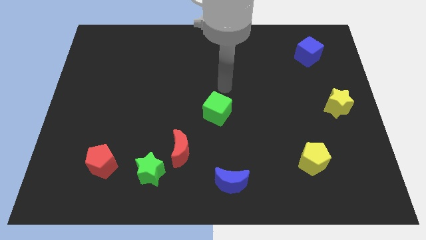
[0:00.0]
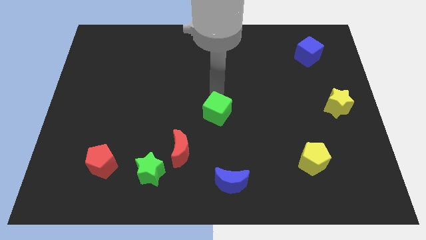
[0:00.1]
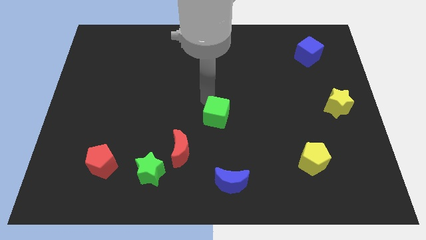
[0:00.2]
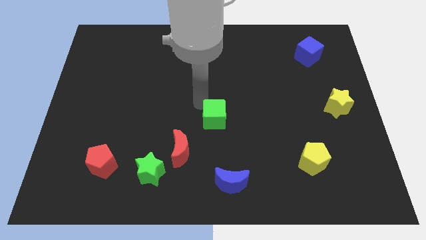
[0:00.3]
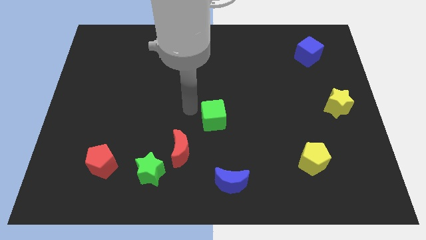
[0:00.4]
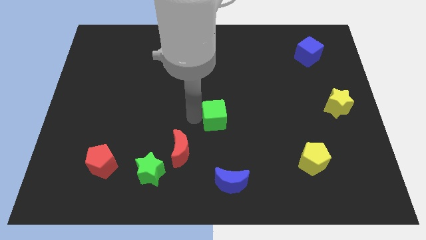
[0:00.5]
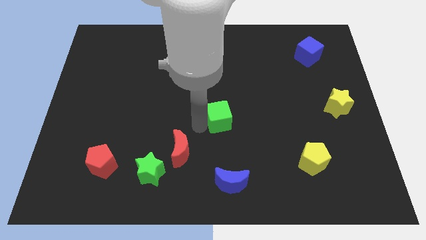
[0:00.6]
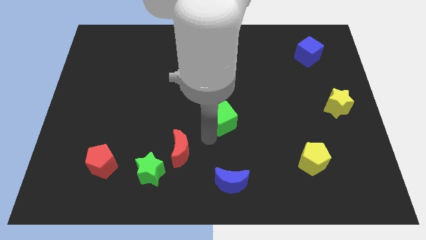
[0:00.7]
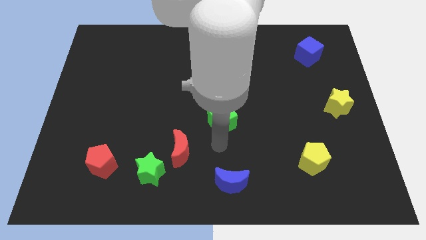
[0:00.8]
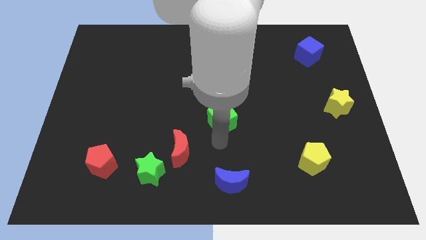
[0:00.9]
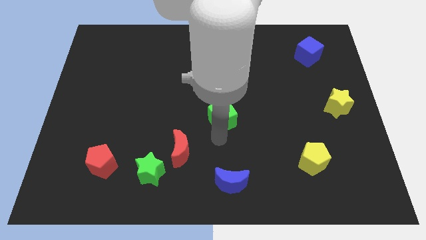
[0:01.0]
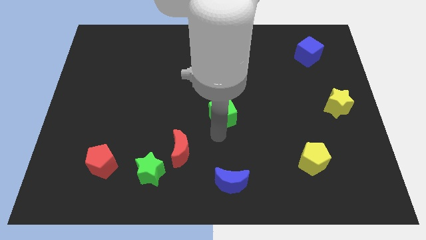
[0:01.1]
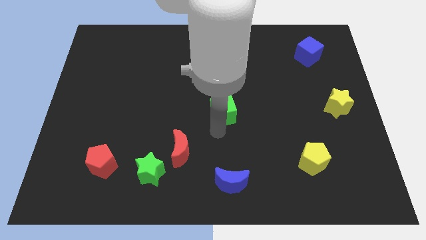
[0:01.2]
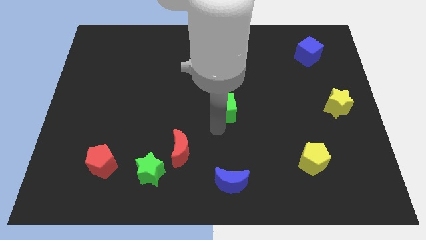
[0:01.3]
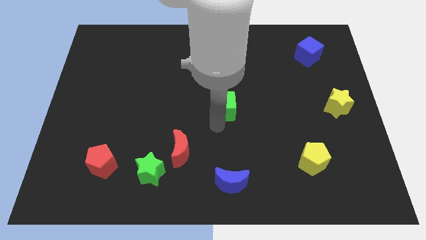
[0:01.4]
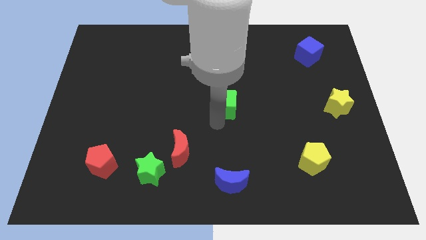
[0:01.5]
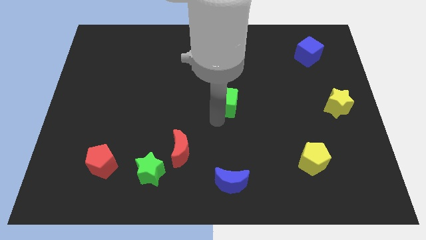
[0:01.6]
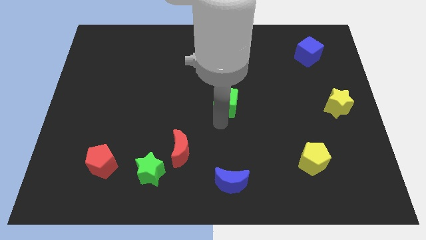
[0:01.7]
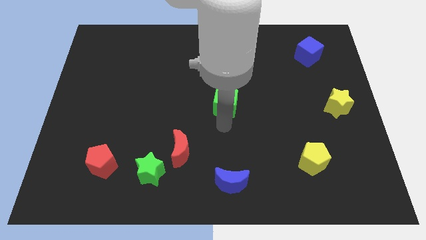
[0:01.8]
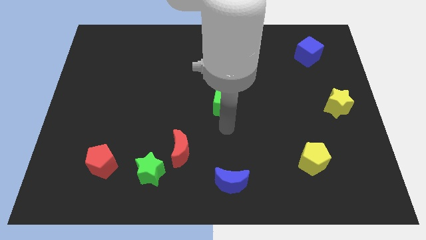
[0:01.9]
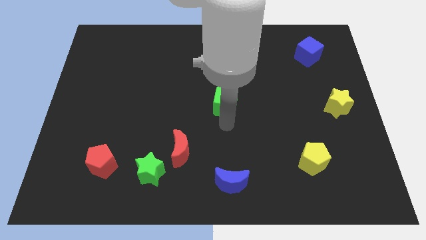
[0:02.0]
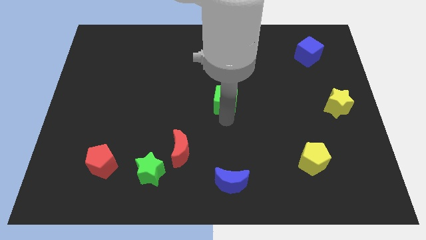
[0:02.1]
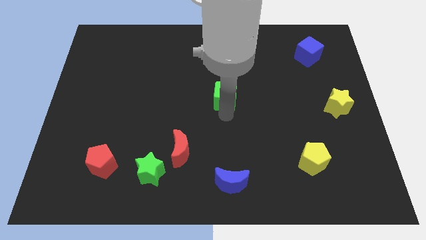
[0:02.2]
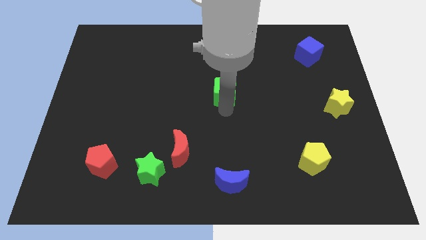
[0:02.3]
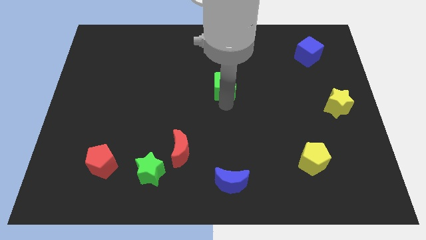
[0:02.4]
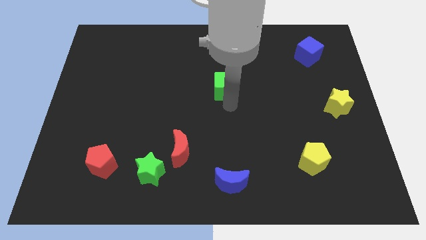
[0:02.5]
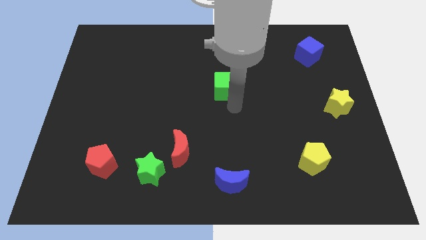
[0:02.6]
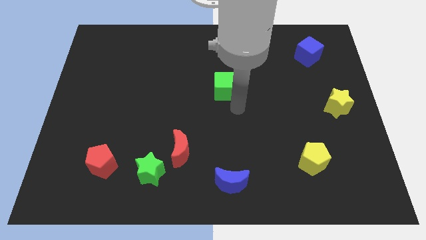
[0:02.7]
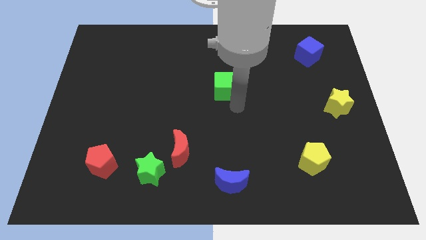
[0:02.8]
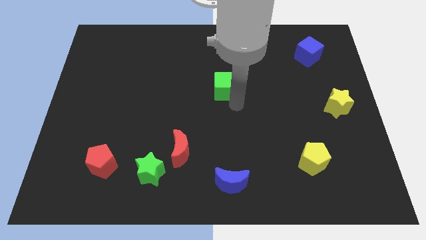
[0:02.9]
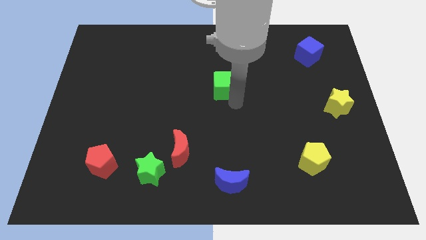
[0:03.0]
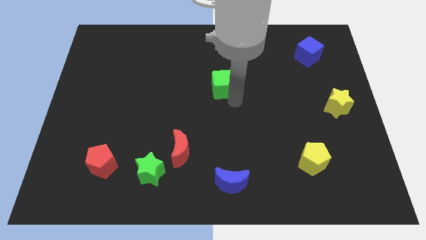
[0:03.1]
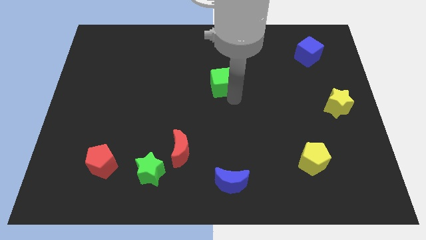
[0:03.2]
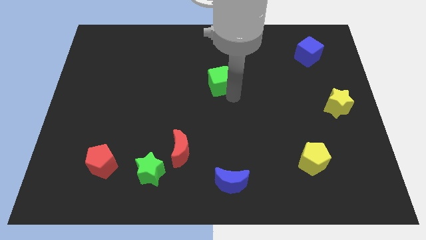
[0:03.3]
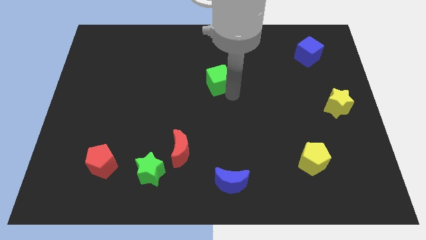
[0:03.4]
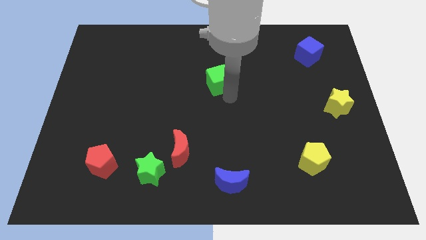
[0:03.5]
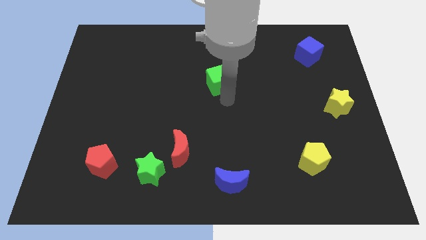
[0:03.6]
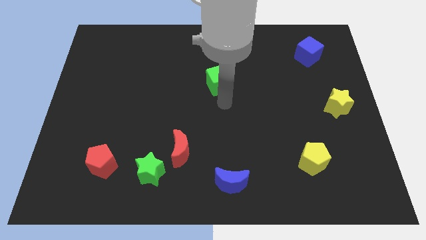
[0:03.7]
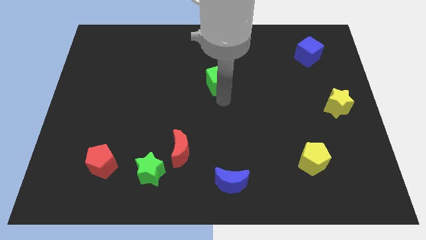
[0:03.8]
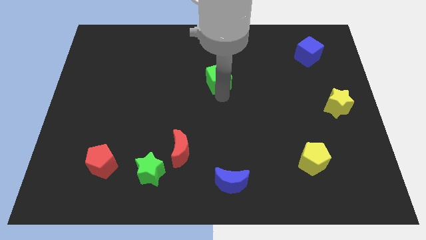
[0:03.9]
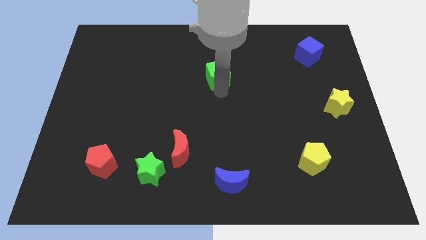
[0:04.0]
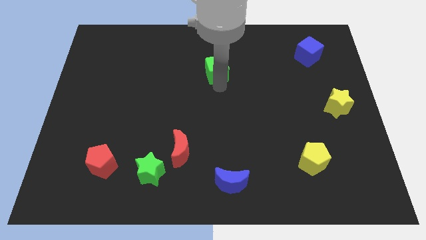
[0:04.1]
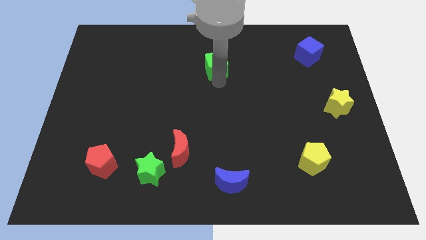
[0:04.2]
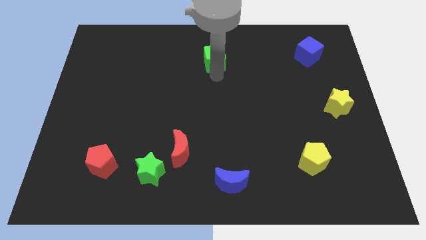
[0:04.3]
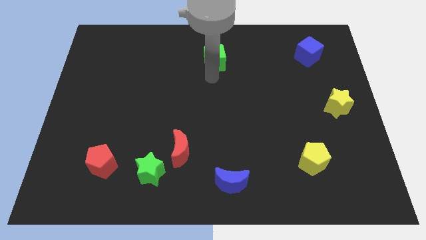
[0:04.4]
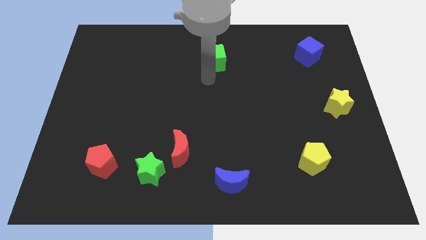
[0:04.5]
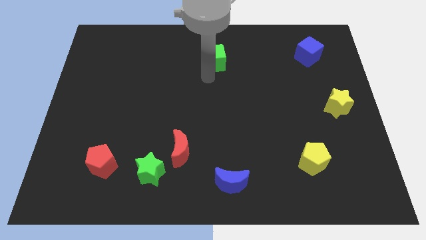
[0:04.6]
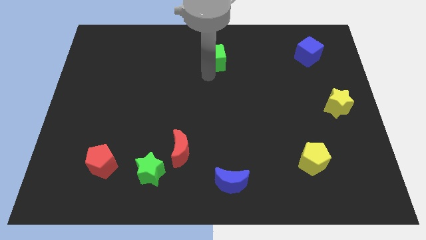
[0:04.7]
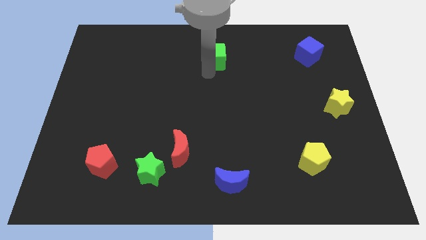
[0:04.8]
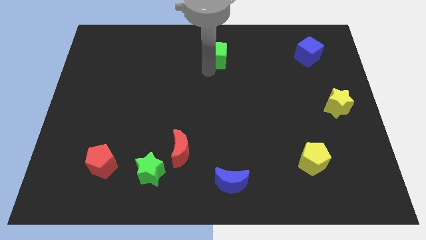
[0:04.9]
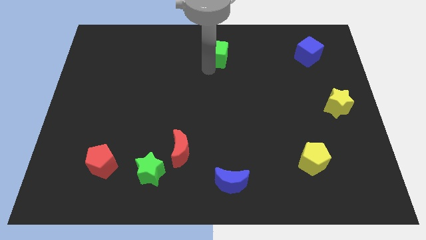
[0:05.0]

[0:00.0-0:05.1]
move the green cube to the top side

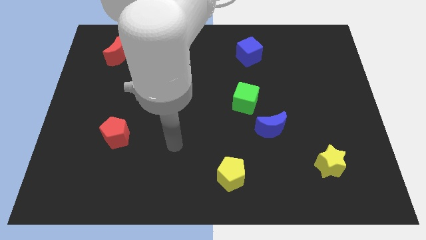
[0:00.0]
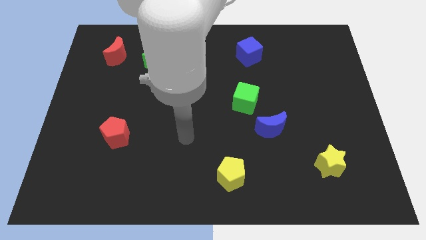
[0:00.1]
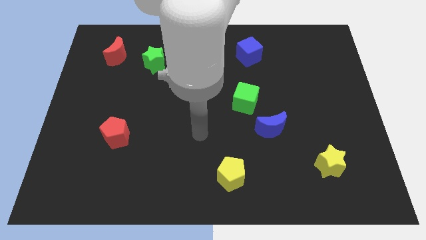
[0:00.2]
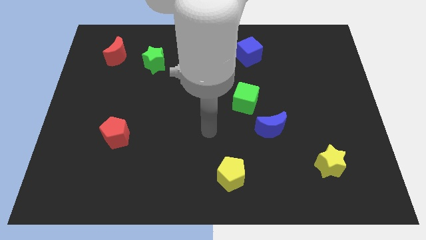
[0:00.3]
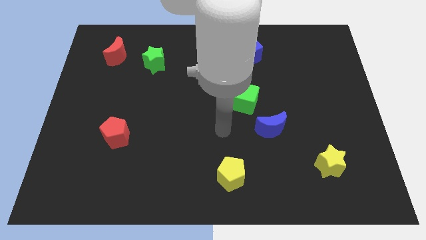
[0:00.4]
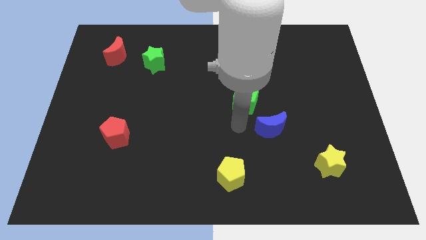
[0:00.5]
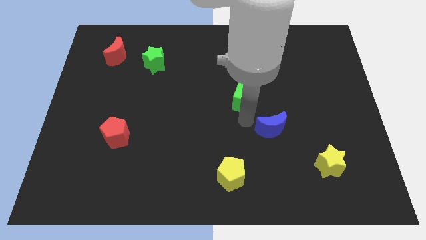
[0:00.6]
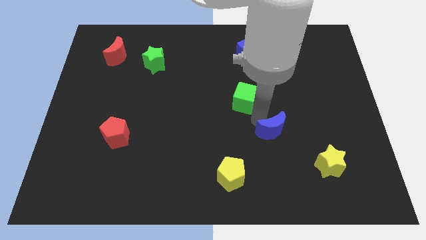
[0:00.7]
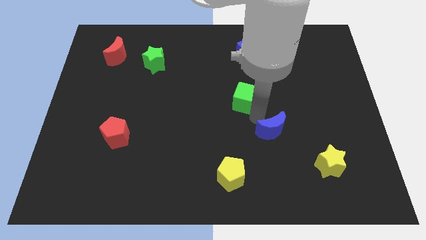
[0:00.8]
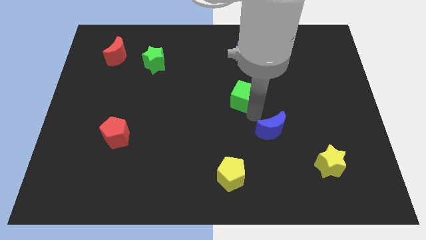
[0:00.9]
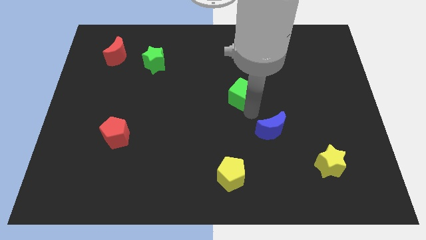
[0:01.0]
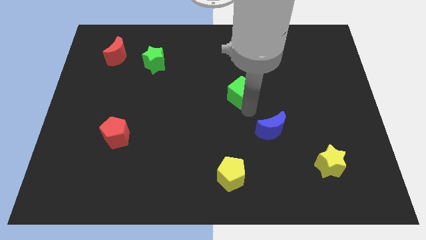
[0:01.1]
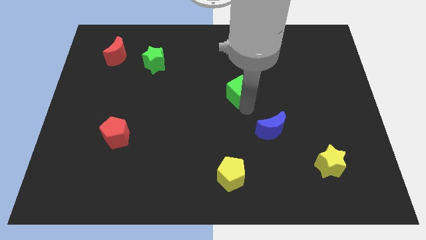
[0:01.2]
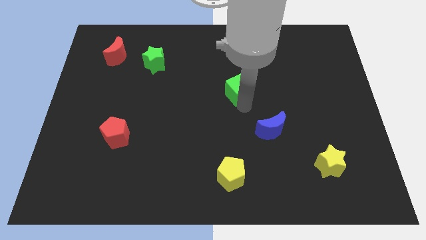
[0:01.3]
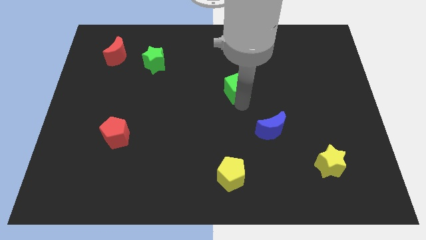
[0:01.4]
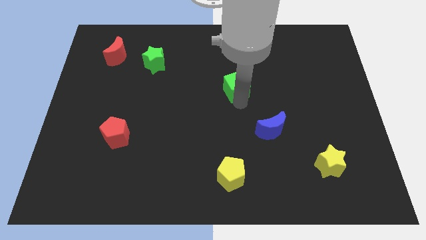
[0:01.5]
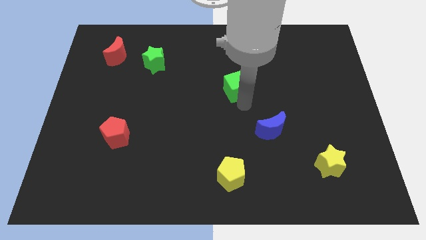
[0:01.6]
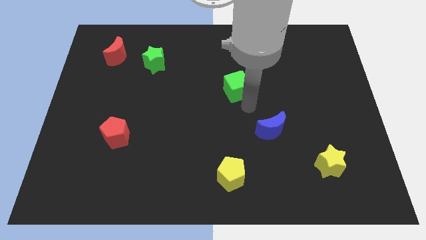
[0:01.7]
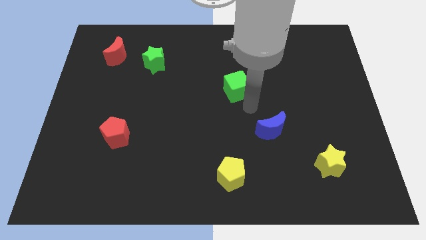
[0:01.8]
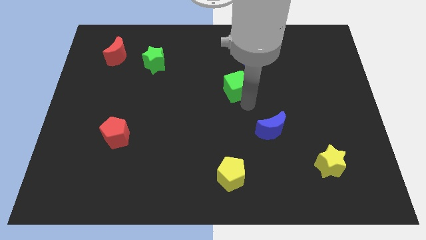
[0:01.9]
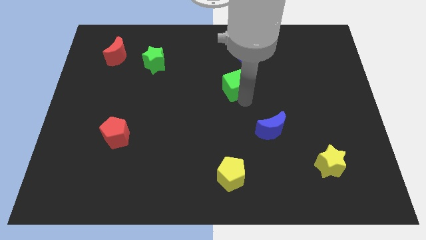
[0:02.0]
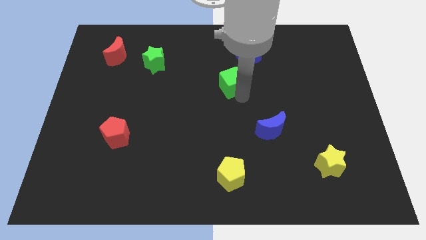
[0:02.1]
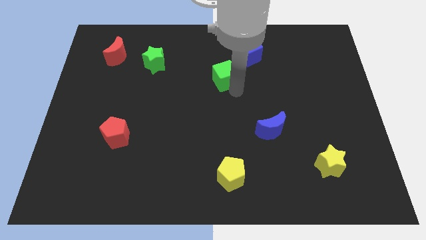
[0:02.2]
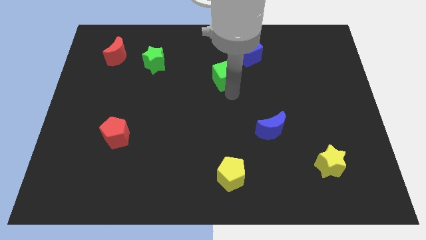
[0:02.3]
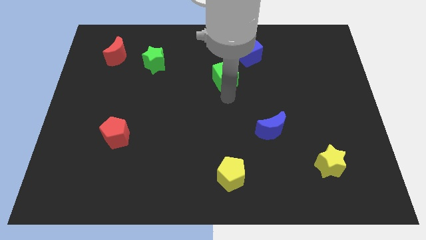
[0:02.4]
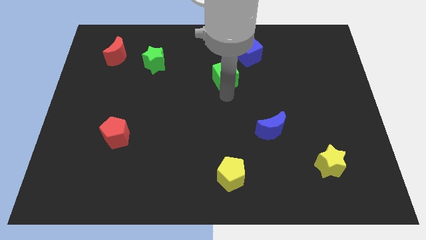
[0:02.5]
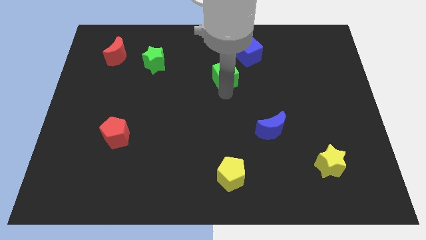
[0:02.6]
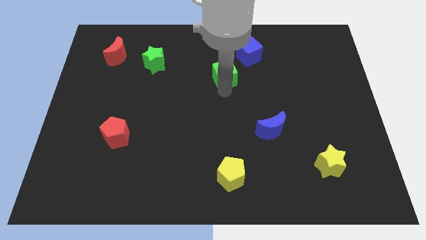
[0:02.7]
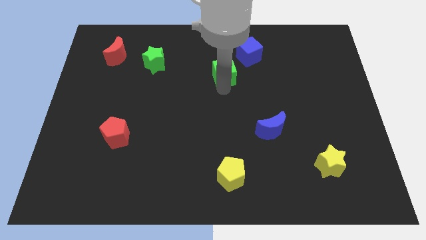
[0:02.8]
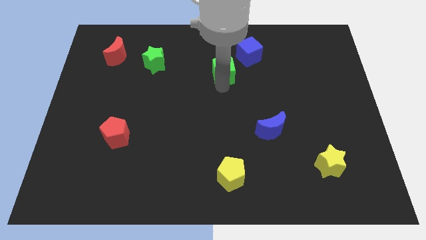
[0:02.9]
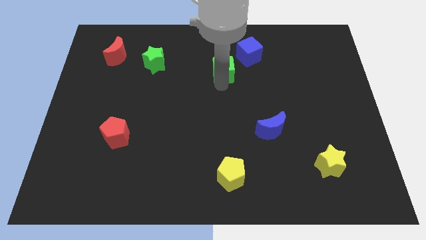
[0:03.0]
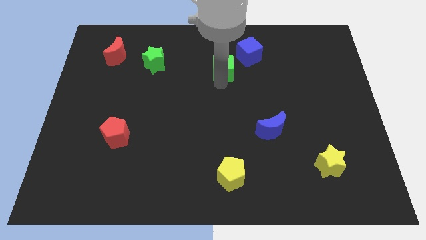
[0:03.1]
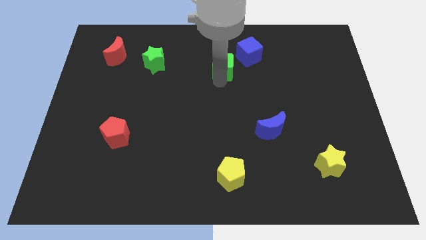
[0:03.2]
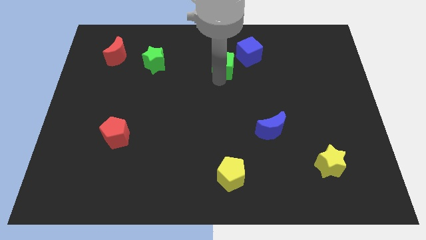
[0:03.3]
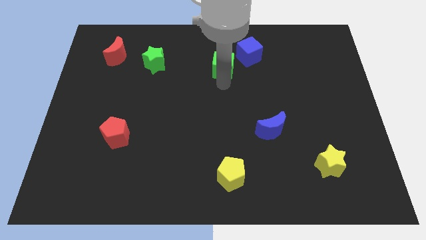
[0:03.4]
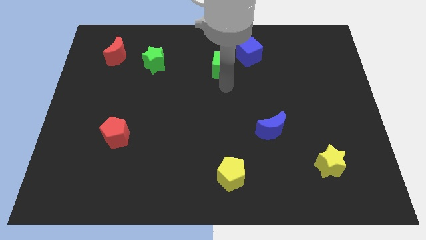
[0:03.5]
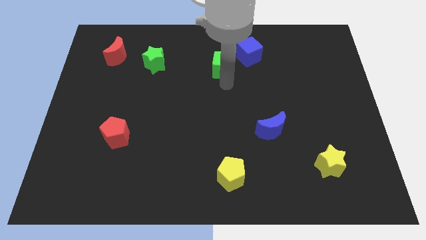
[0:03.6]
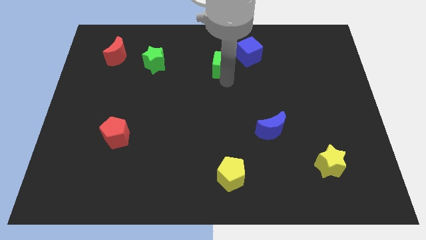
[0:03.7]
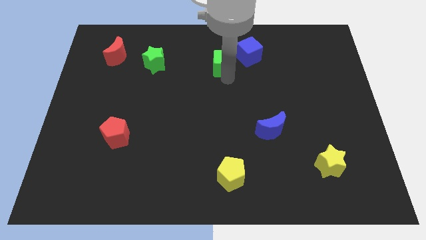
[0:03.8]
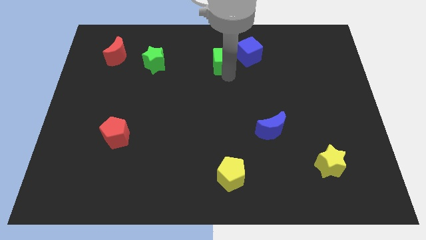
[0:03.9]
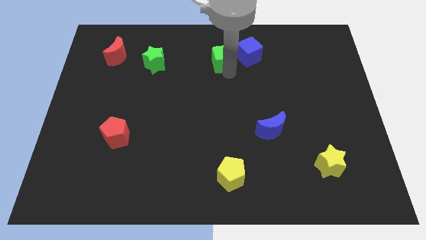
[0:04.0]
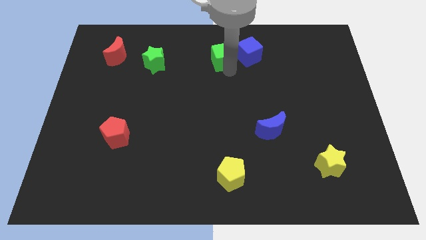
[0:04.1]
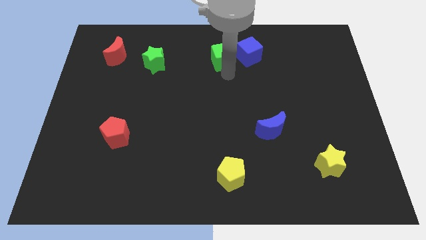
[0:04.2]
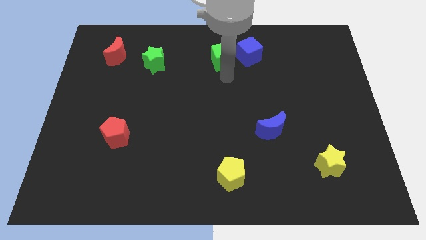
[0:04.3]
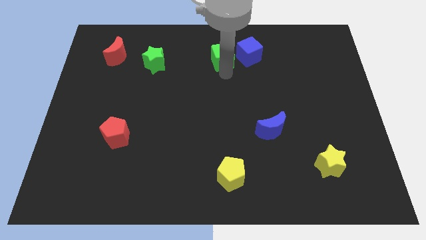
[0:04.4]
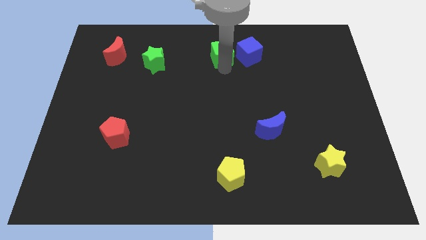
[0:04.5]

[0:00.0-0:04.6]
move the green cube to the towards your base
